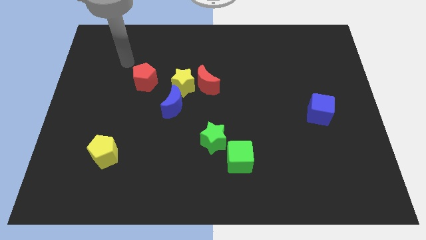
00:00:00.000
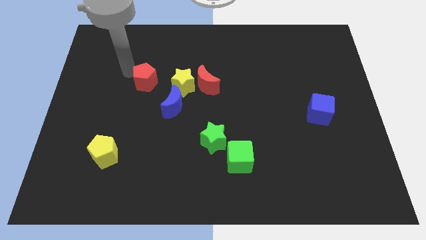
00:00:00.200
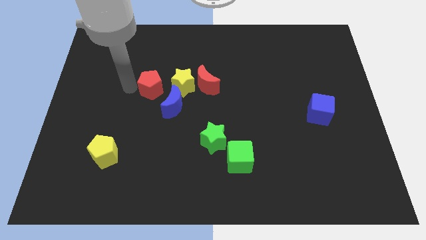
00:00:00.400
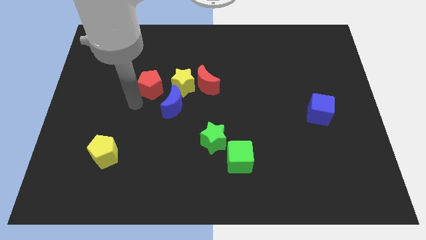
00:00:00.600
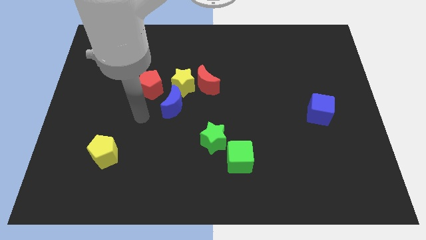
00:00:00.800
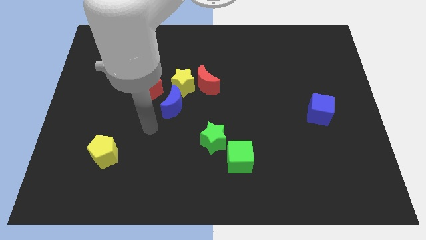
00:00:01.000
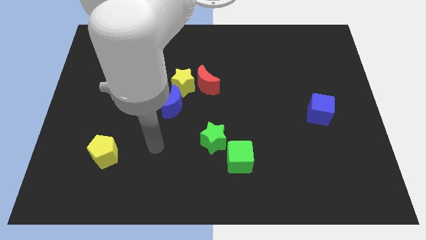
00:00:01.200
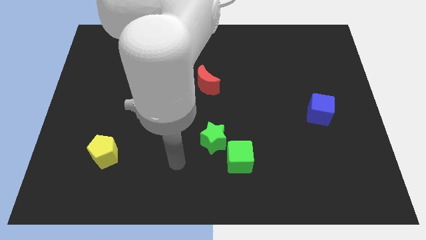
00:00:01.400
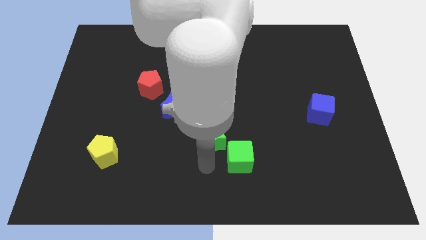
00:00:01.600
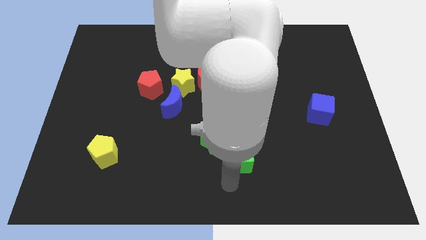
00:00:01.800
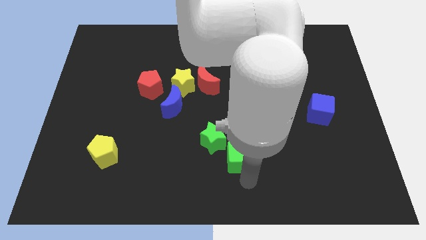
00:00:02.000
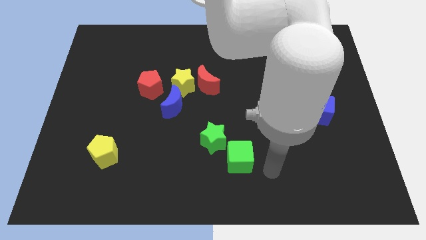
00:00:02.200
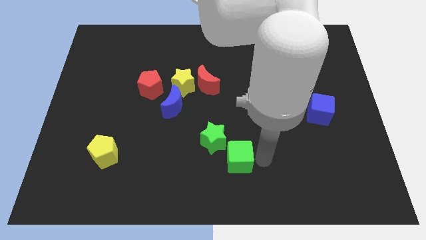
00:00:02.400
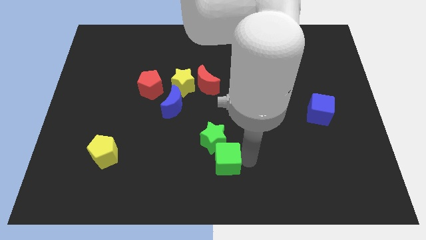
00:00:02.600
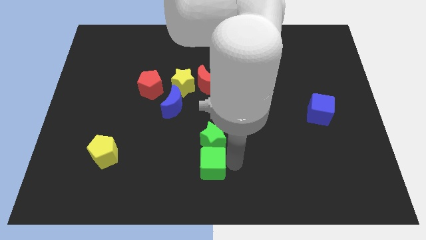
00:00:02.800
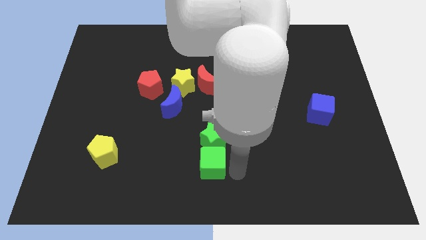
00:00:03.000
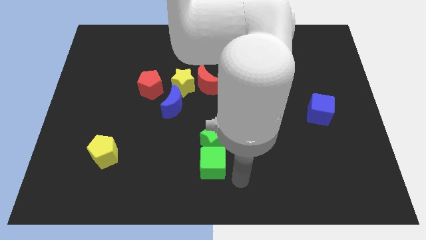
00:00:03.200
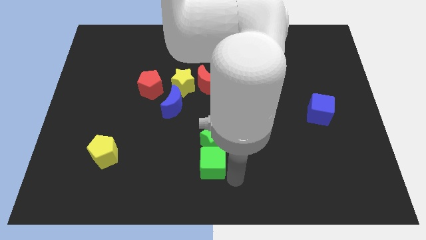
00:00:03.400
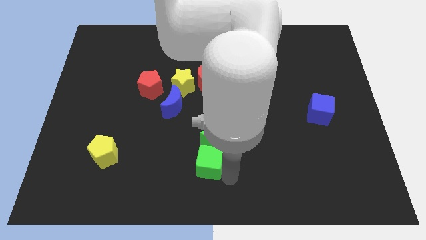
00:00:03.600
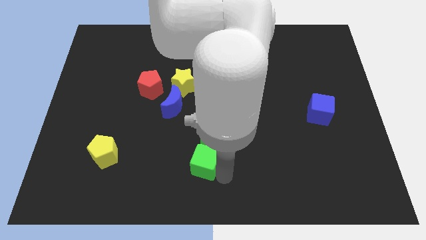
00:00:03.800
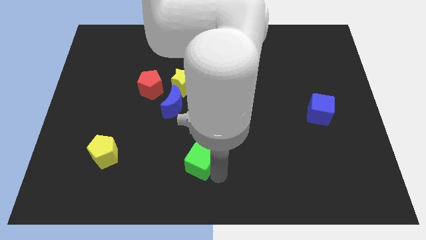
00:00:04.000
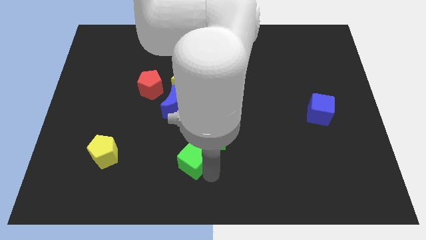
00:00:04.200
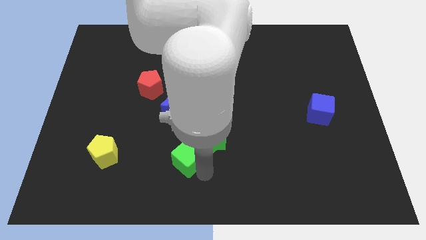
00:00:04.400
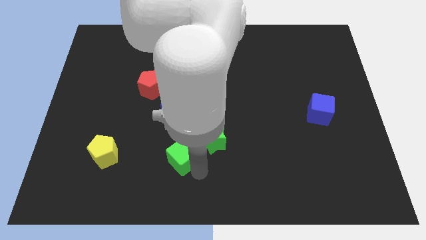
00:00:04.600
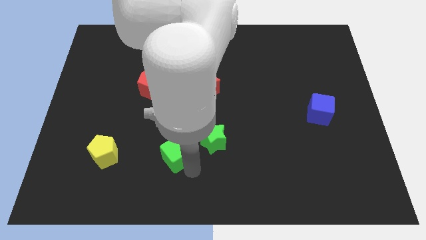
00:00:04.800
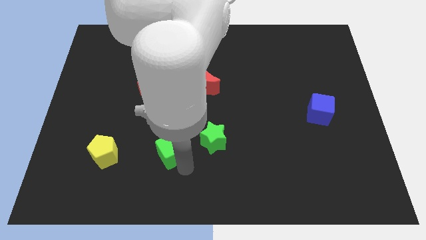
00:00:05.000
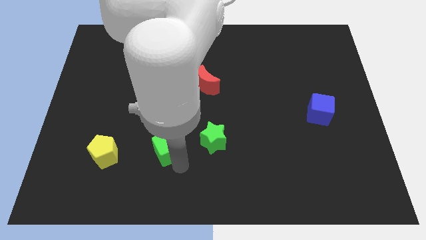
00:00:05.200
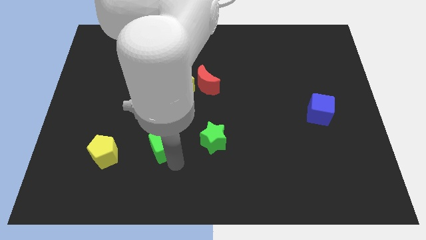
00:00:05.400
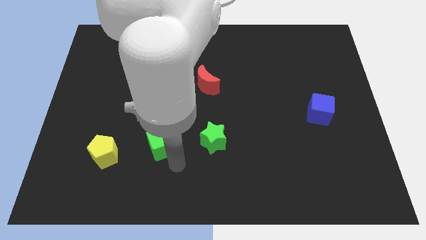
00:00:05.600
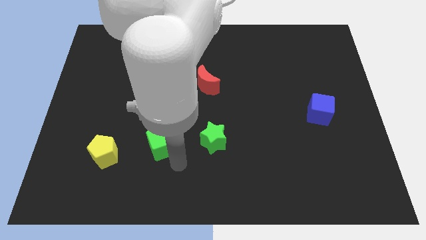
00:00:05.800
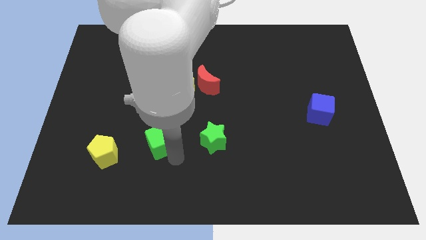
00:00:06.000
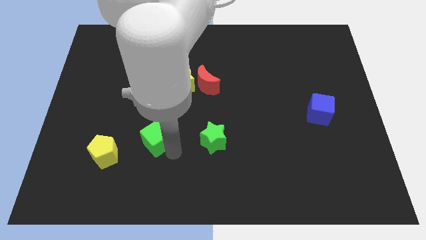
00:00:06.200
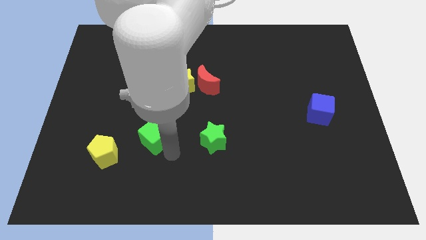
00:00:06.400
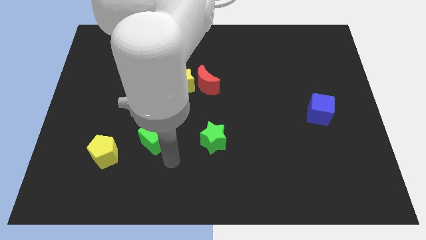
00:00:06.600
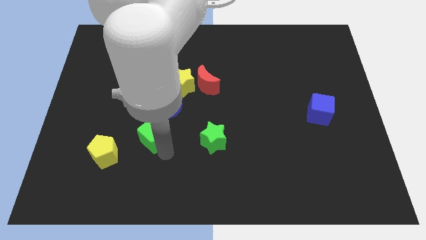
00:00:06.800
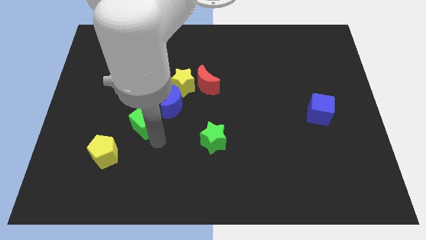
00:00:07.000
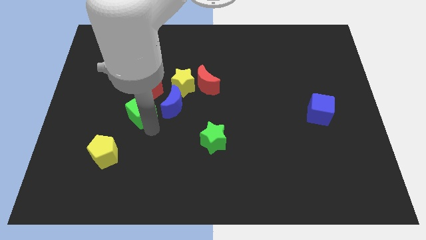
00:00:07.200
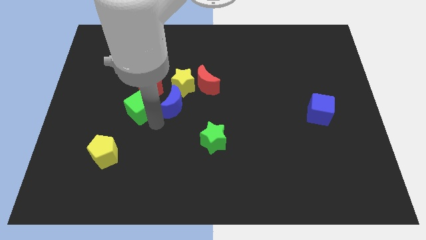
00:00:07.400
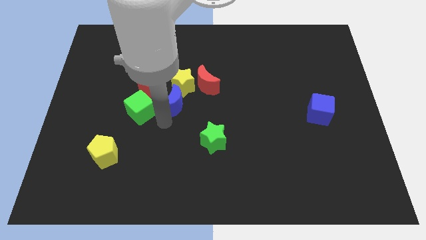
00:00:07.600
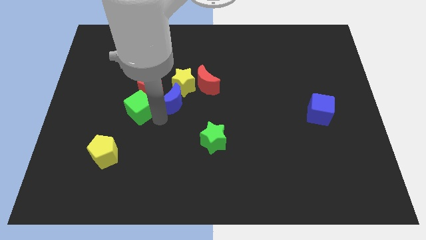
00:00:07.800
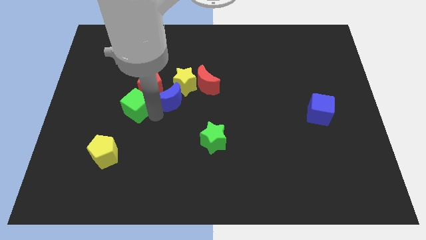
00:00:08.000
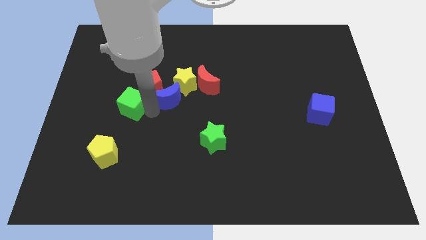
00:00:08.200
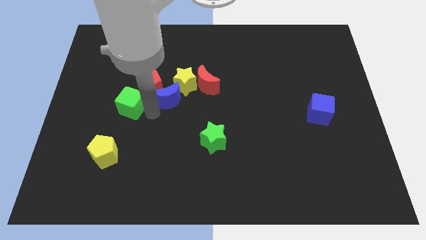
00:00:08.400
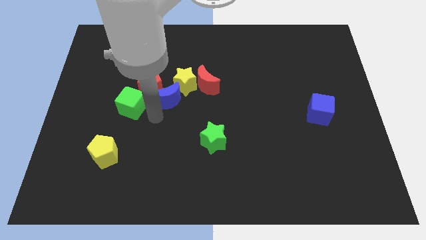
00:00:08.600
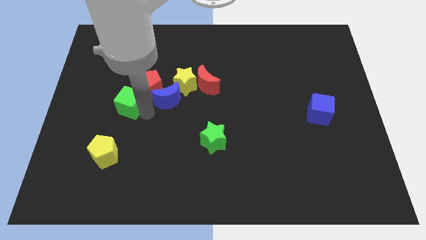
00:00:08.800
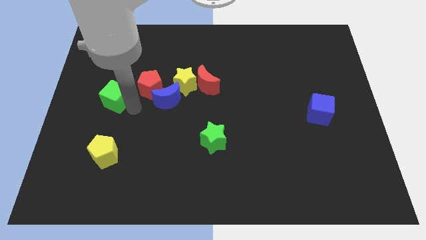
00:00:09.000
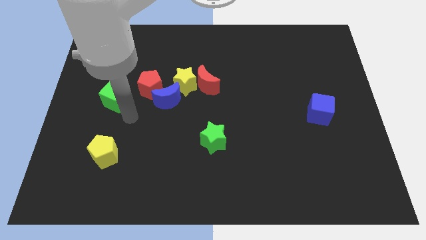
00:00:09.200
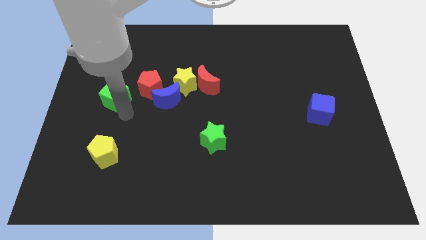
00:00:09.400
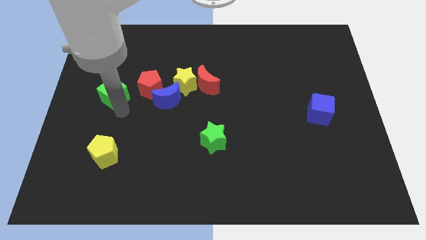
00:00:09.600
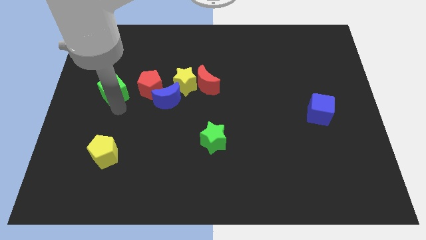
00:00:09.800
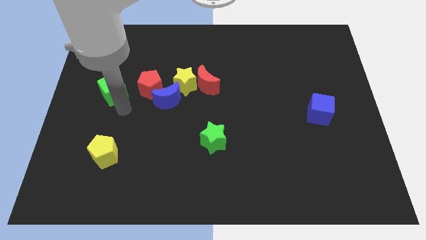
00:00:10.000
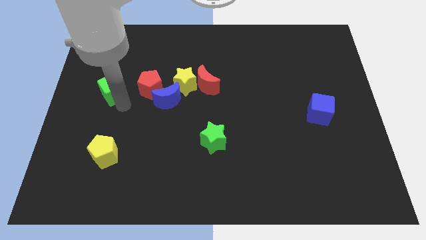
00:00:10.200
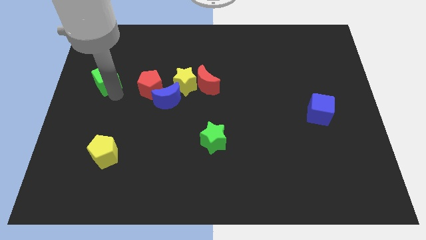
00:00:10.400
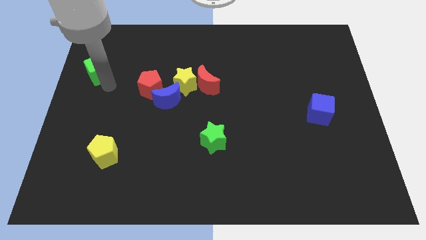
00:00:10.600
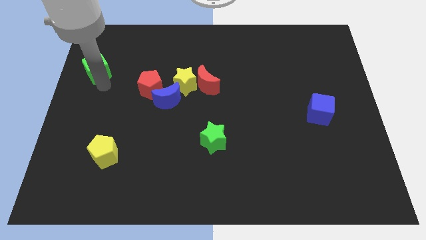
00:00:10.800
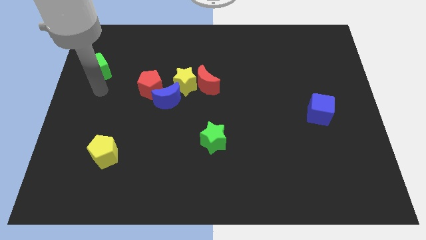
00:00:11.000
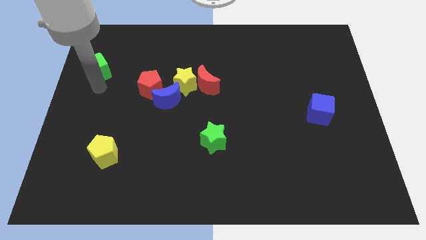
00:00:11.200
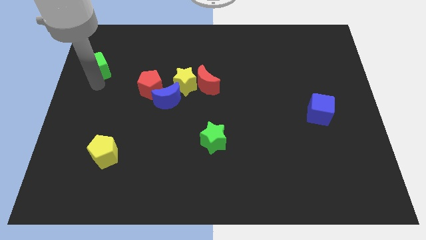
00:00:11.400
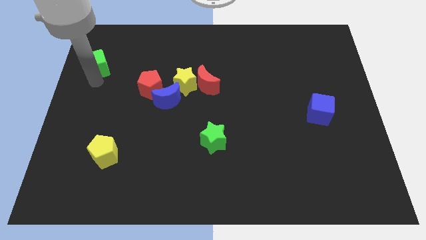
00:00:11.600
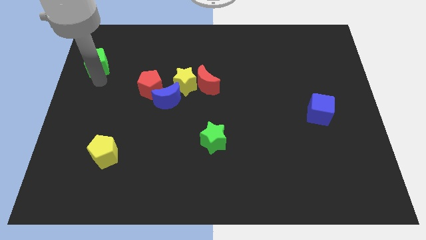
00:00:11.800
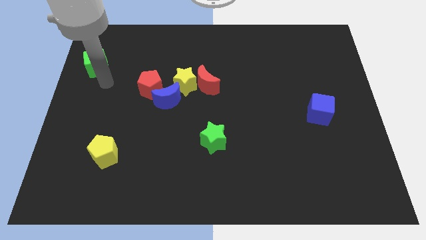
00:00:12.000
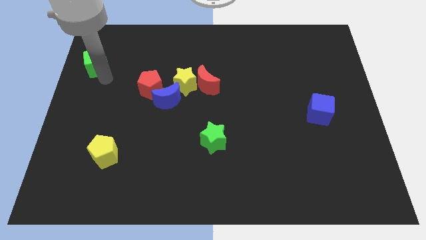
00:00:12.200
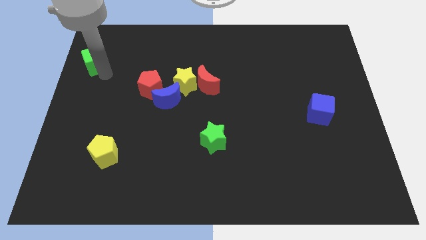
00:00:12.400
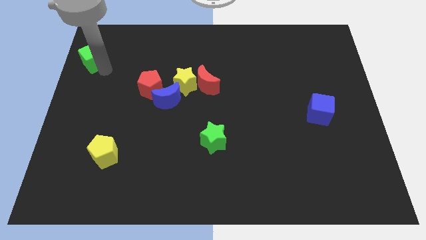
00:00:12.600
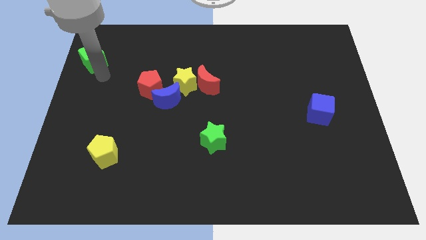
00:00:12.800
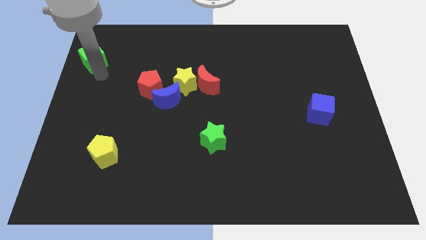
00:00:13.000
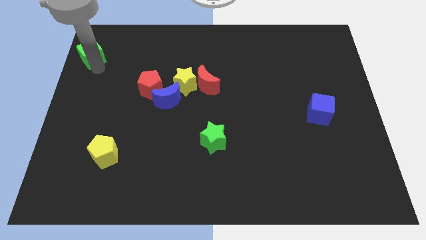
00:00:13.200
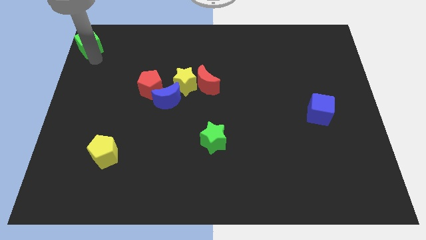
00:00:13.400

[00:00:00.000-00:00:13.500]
slide the green cube to the top left corner
